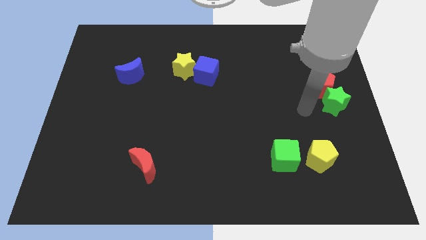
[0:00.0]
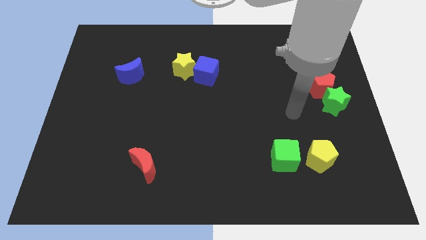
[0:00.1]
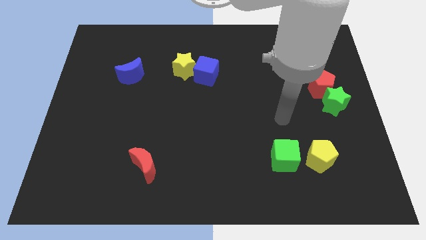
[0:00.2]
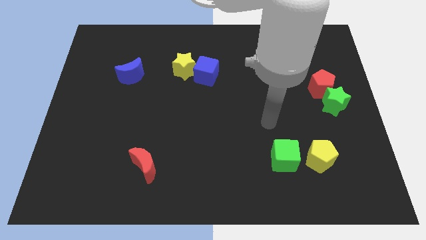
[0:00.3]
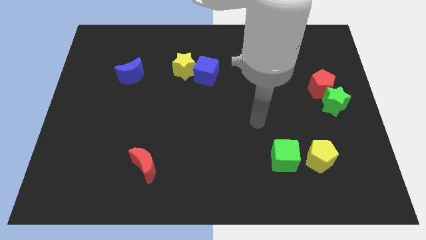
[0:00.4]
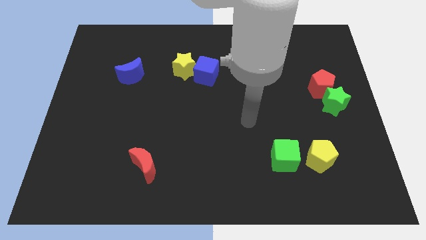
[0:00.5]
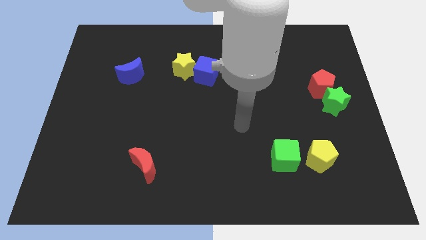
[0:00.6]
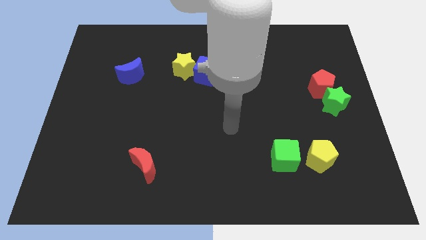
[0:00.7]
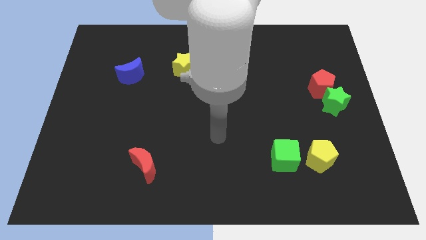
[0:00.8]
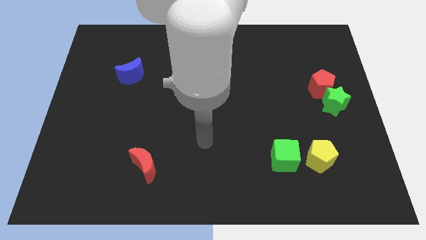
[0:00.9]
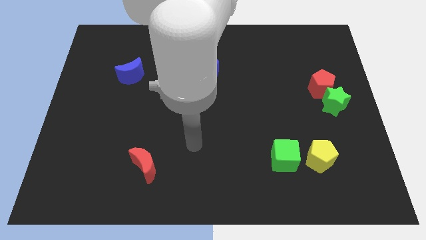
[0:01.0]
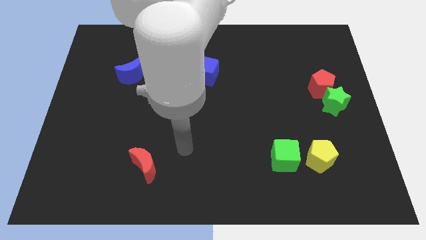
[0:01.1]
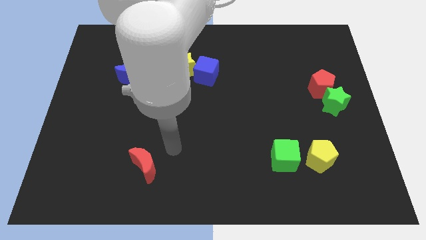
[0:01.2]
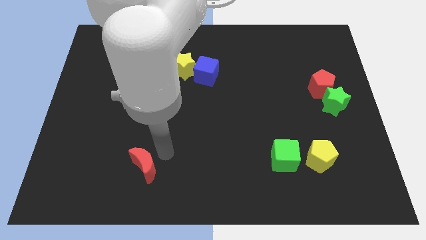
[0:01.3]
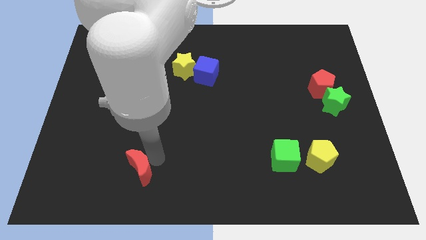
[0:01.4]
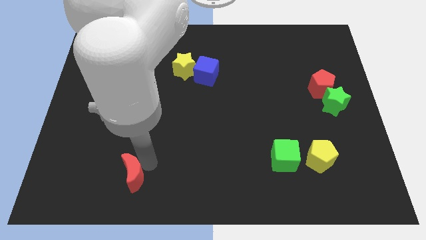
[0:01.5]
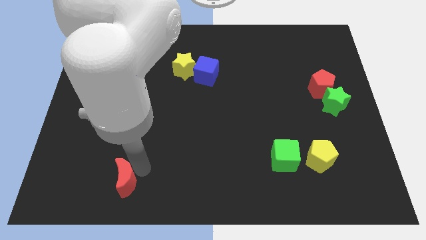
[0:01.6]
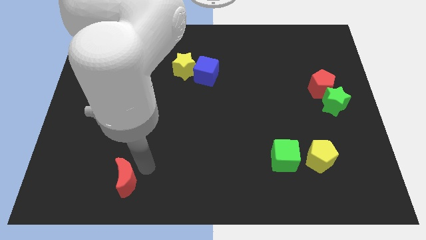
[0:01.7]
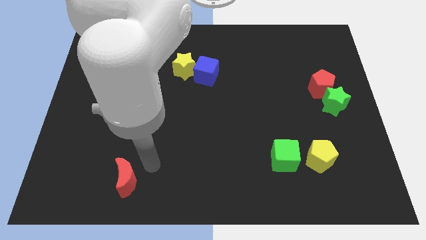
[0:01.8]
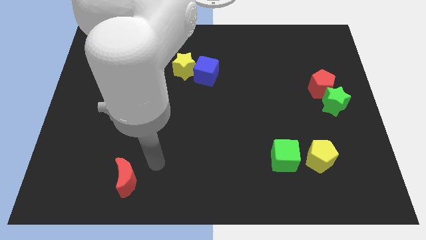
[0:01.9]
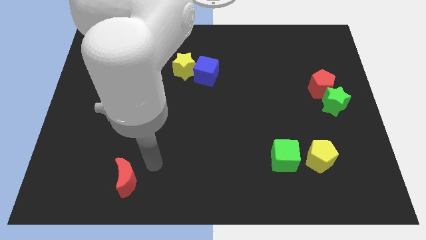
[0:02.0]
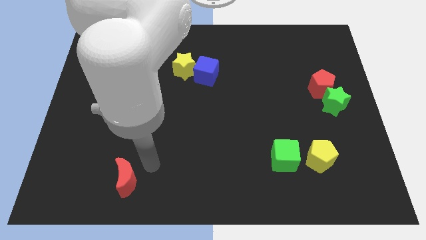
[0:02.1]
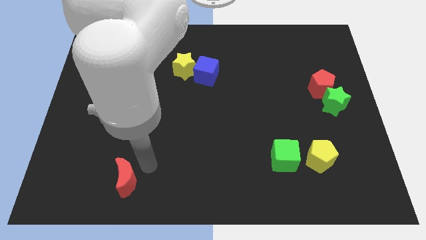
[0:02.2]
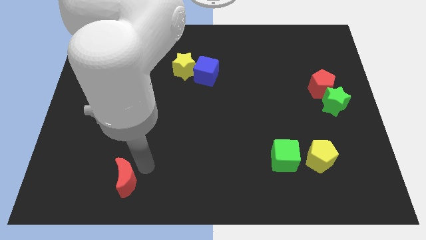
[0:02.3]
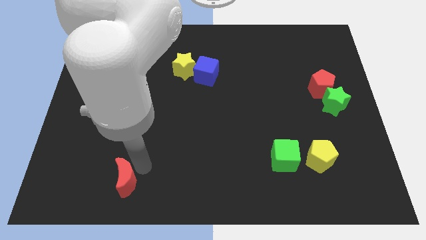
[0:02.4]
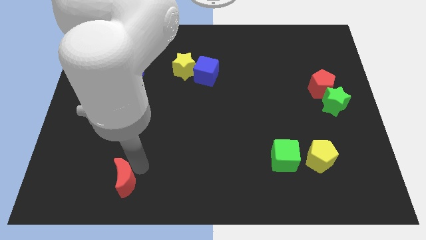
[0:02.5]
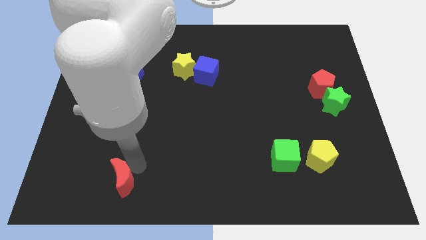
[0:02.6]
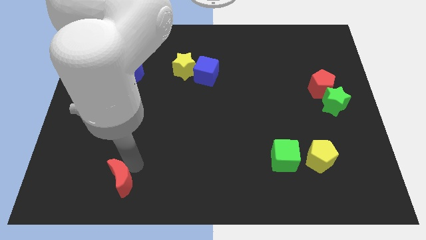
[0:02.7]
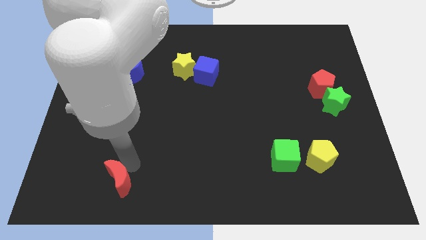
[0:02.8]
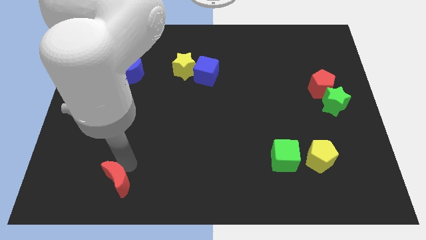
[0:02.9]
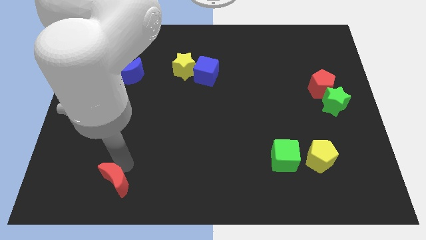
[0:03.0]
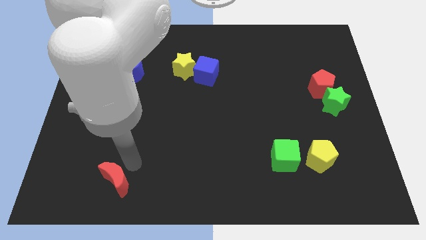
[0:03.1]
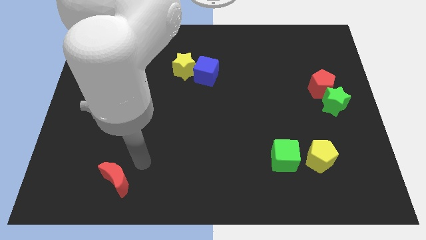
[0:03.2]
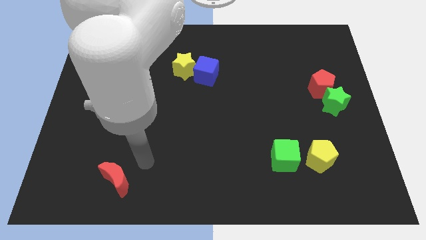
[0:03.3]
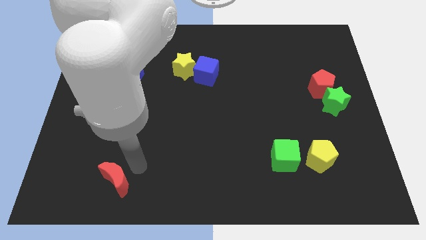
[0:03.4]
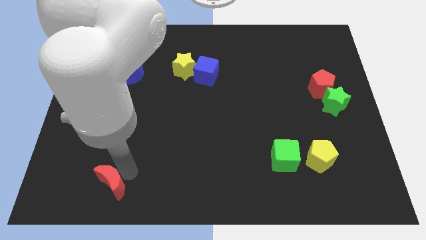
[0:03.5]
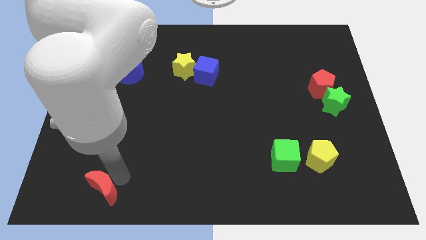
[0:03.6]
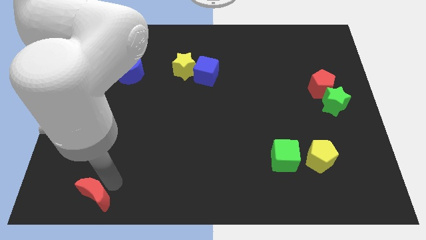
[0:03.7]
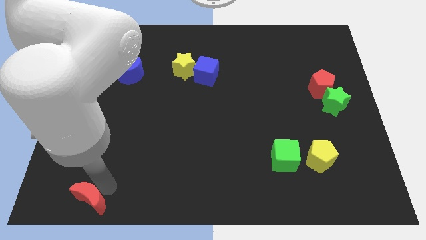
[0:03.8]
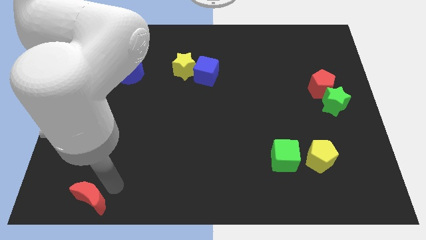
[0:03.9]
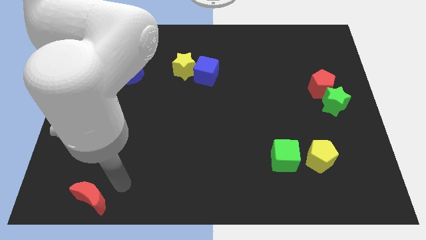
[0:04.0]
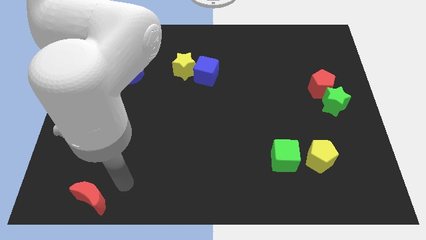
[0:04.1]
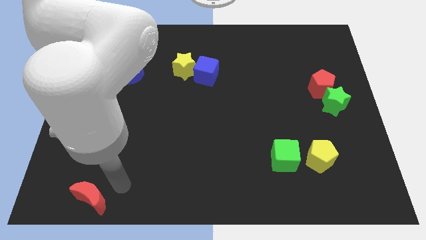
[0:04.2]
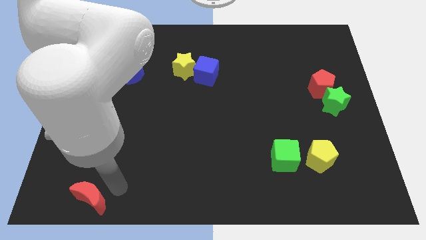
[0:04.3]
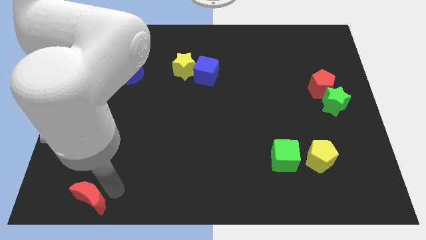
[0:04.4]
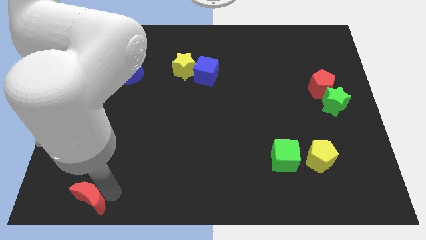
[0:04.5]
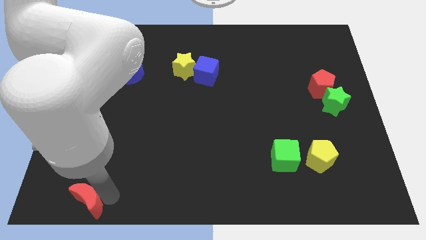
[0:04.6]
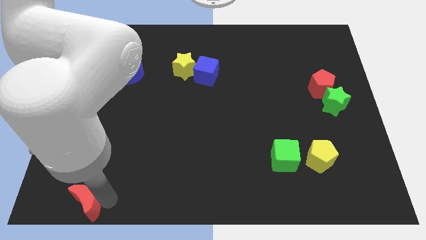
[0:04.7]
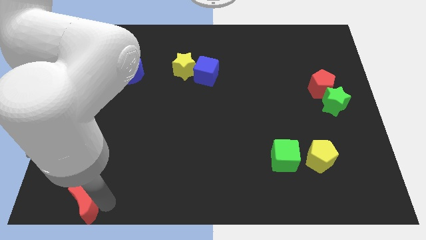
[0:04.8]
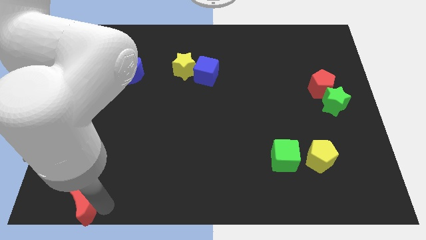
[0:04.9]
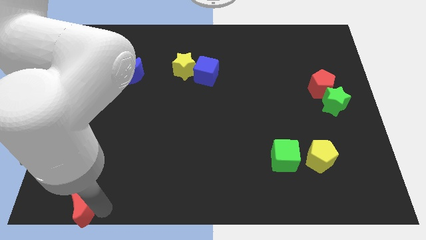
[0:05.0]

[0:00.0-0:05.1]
put the red moon to the lower left corner

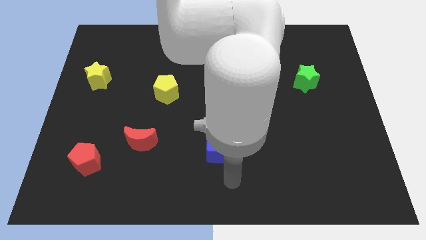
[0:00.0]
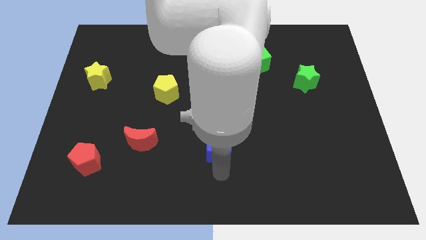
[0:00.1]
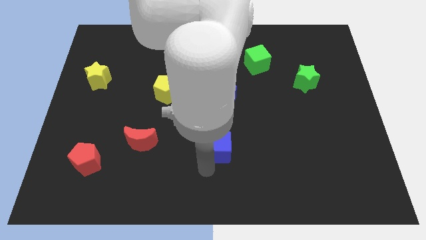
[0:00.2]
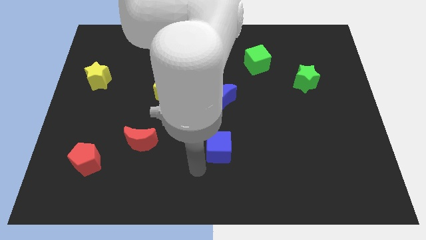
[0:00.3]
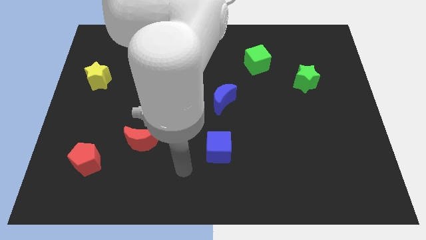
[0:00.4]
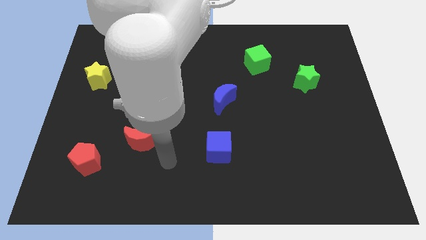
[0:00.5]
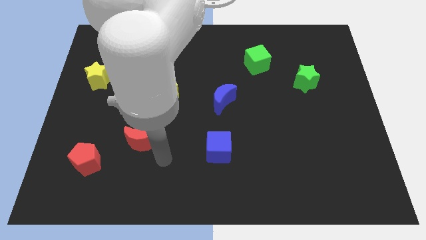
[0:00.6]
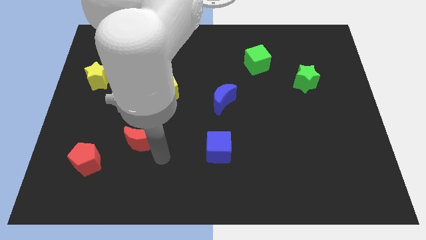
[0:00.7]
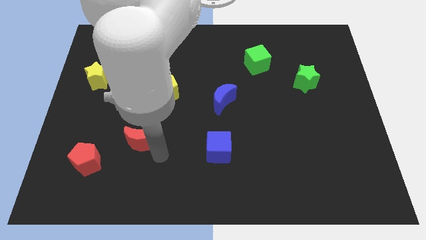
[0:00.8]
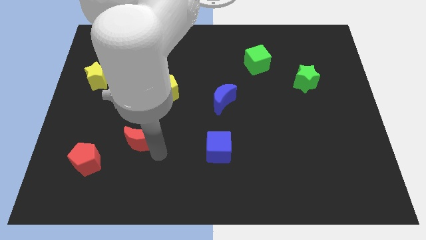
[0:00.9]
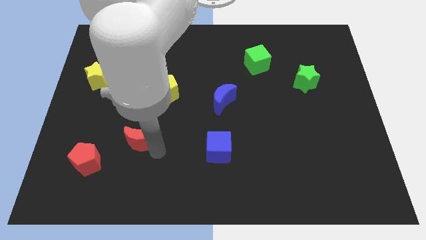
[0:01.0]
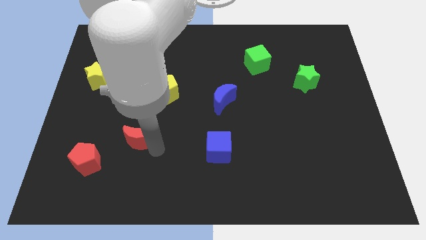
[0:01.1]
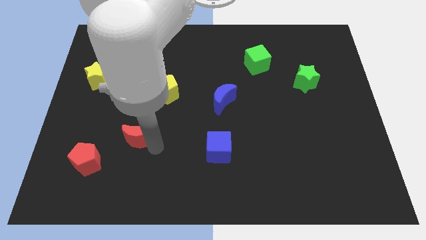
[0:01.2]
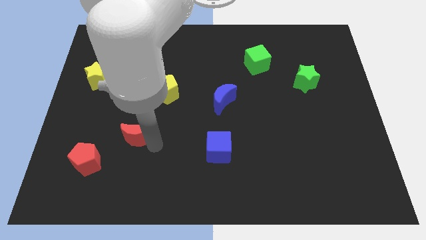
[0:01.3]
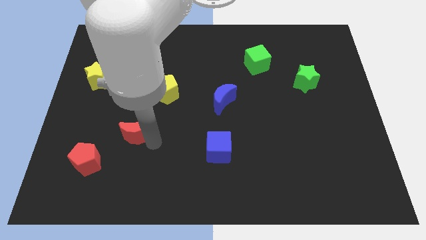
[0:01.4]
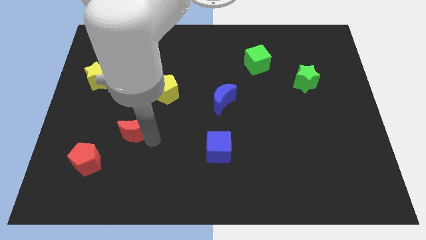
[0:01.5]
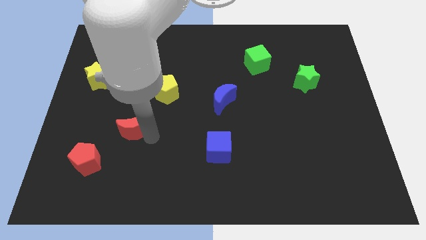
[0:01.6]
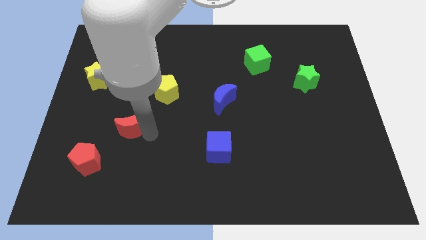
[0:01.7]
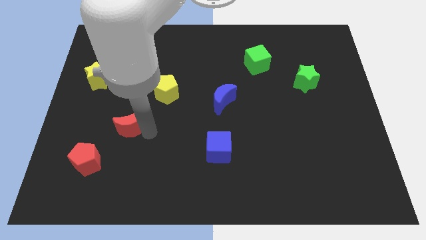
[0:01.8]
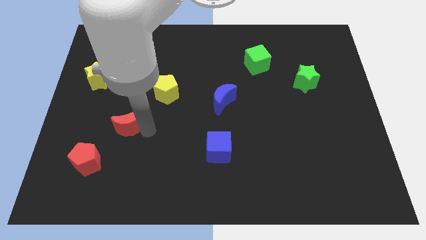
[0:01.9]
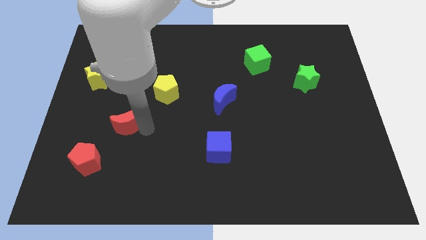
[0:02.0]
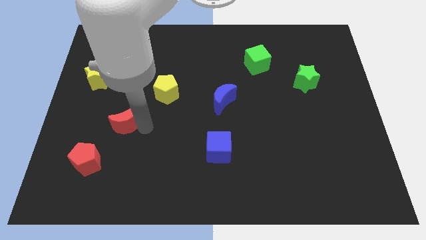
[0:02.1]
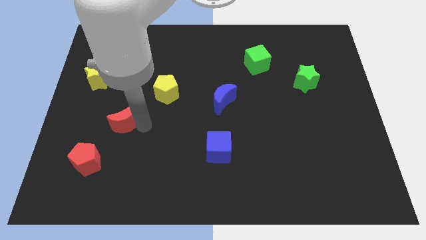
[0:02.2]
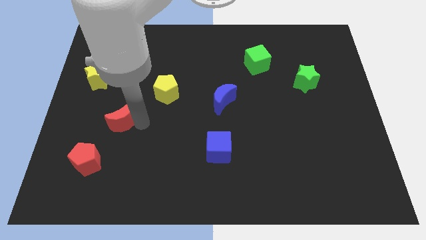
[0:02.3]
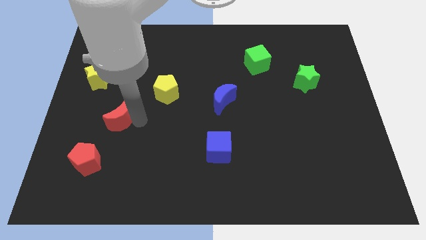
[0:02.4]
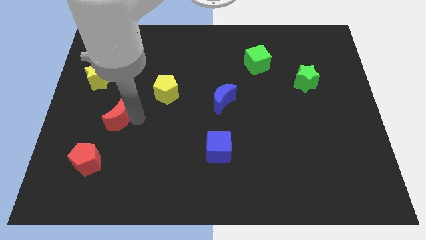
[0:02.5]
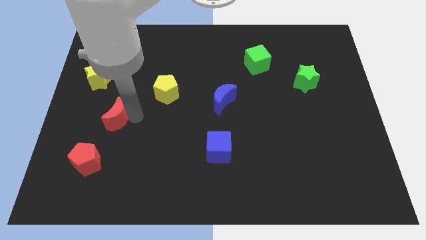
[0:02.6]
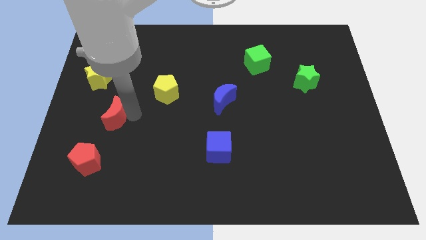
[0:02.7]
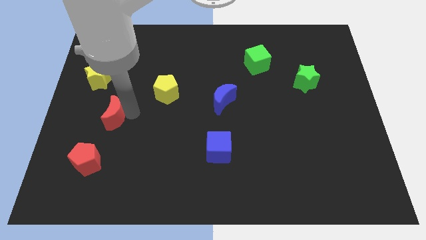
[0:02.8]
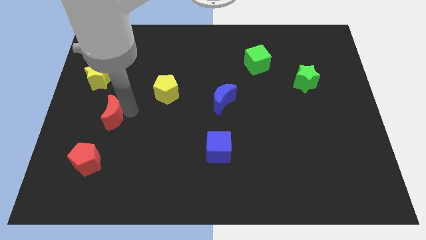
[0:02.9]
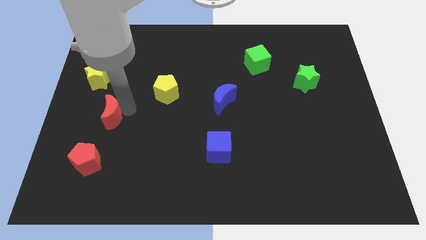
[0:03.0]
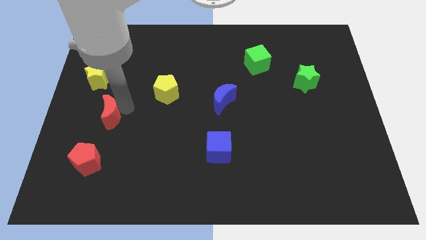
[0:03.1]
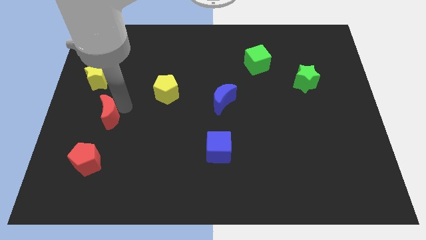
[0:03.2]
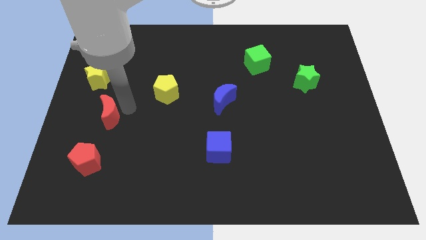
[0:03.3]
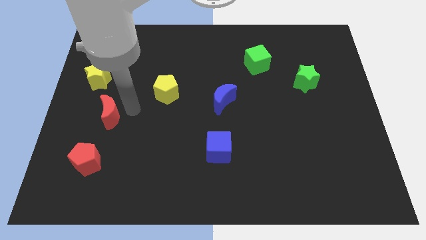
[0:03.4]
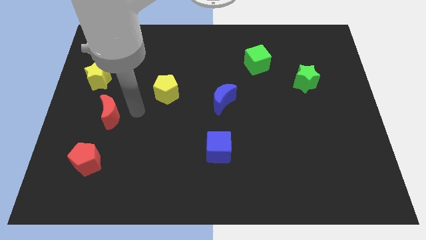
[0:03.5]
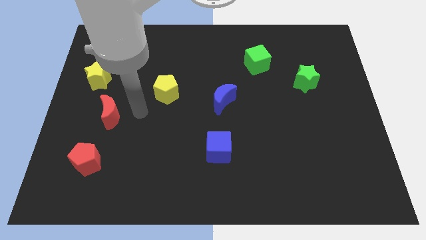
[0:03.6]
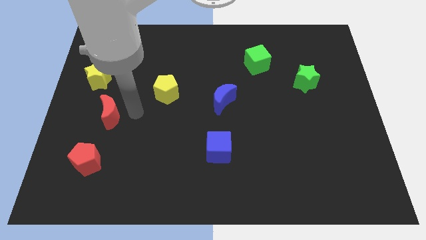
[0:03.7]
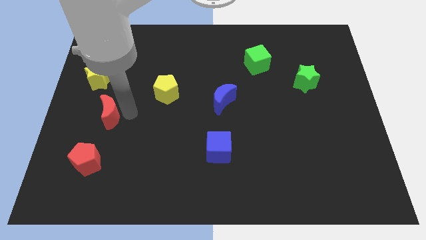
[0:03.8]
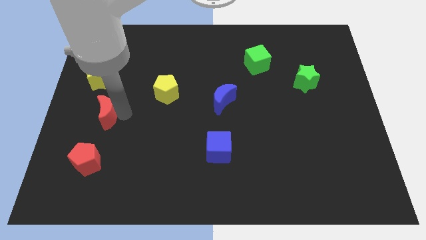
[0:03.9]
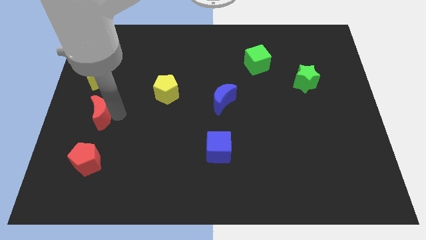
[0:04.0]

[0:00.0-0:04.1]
slide the red moon to the left side
